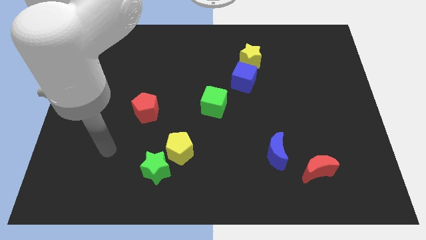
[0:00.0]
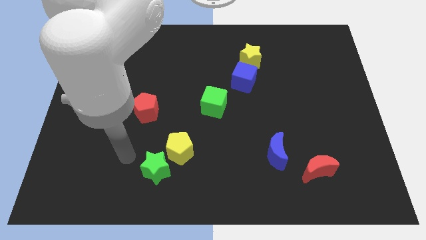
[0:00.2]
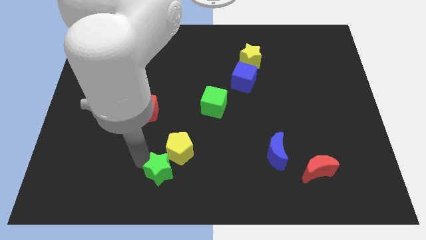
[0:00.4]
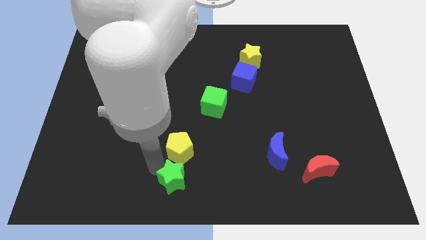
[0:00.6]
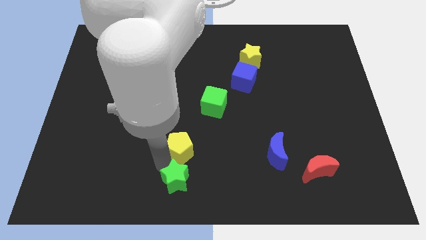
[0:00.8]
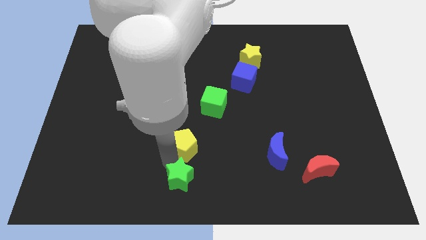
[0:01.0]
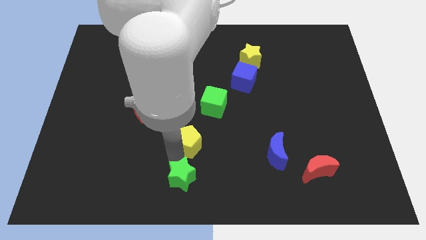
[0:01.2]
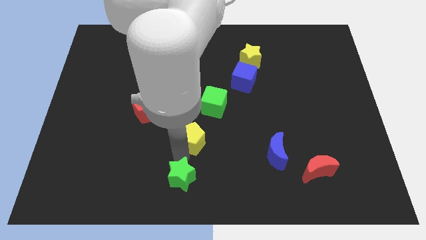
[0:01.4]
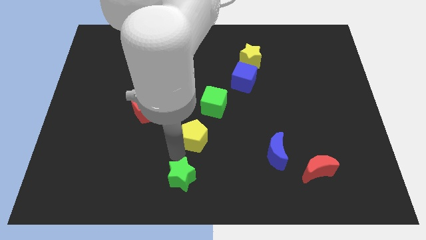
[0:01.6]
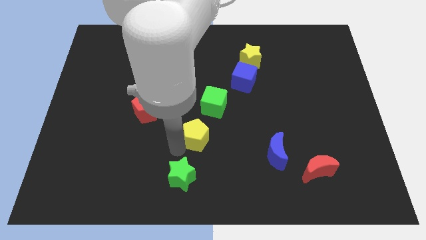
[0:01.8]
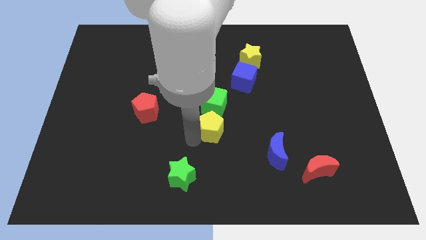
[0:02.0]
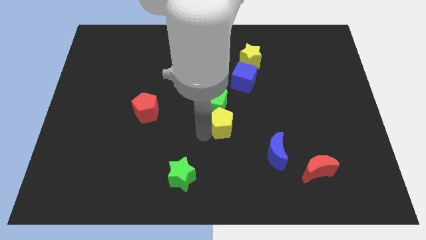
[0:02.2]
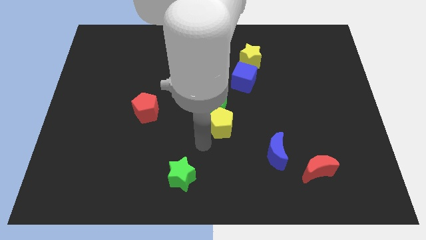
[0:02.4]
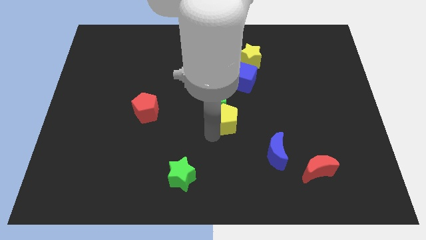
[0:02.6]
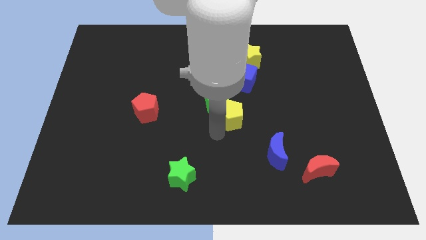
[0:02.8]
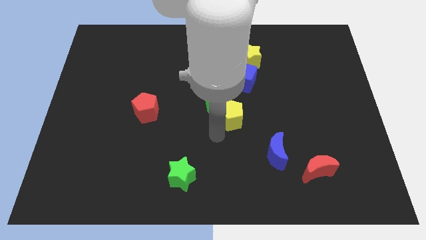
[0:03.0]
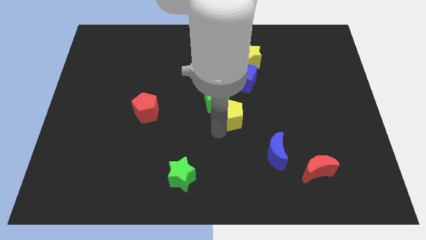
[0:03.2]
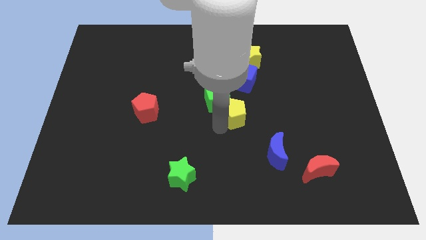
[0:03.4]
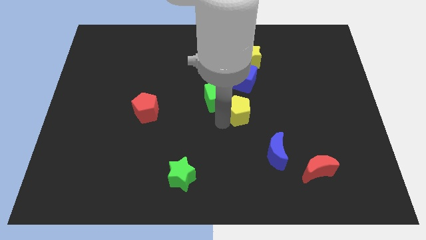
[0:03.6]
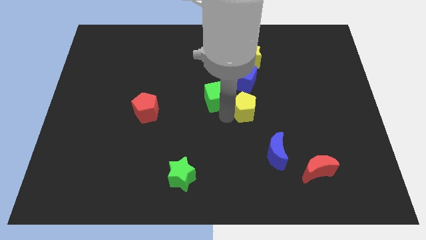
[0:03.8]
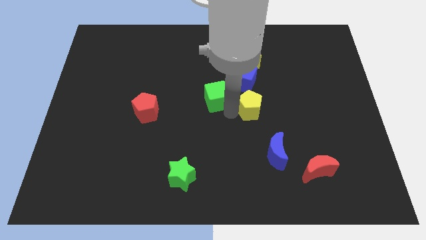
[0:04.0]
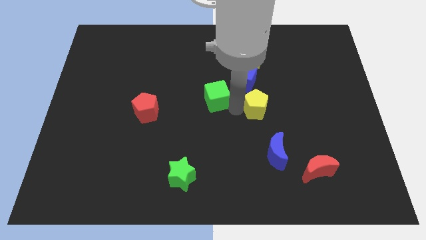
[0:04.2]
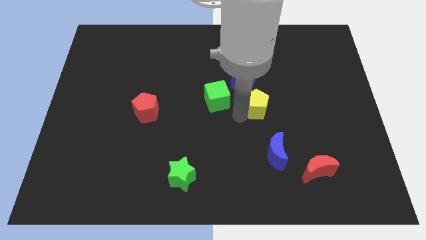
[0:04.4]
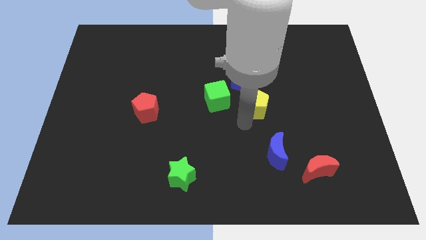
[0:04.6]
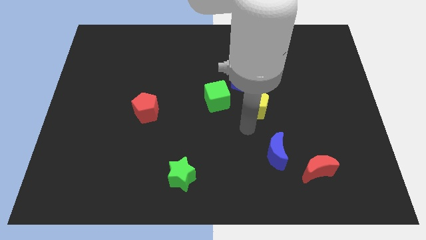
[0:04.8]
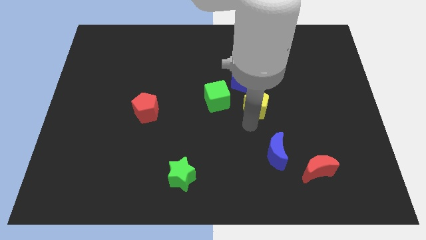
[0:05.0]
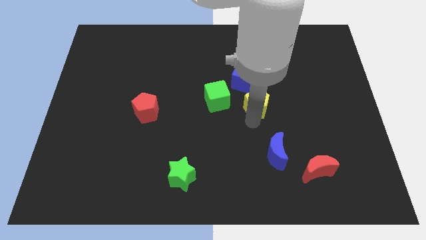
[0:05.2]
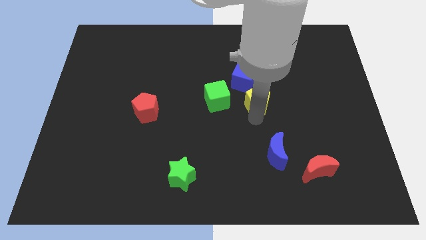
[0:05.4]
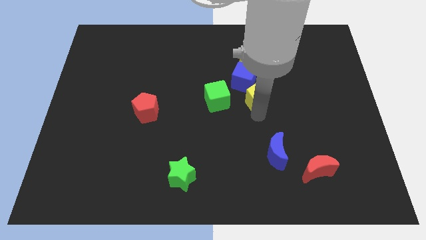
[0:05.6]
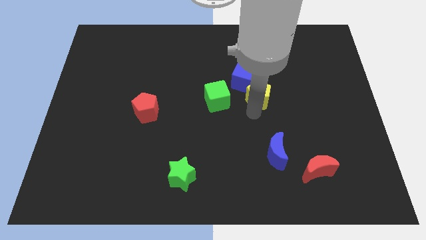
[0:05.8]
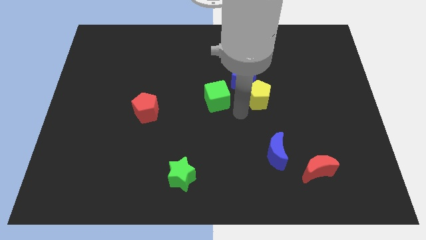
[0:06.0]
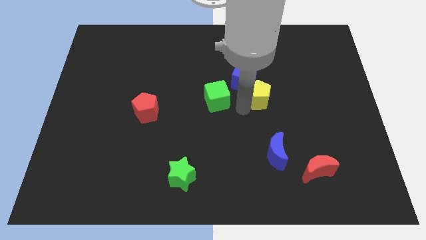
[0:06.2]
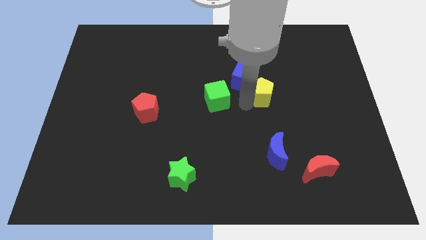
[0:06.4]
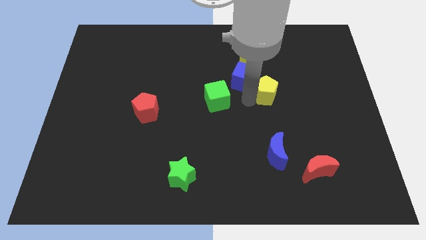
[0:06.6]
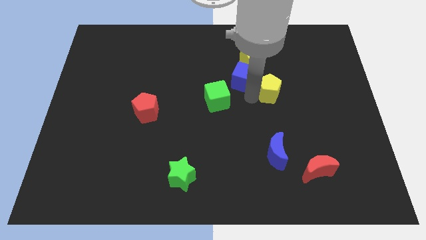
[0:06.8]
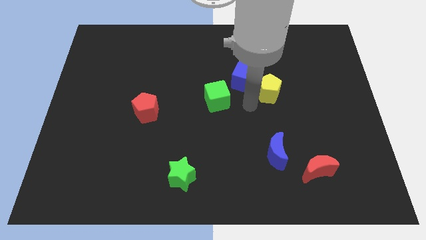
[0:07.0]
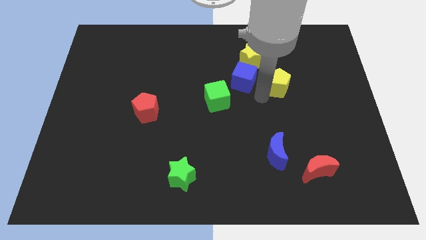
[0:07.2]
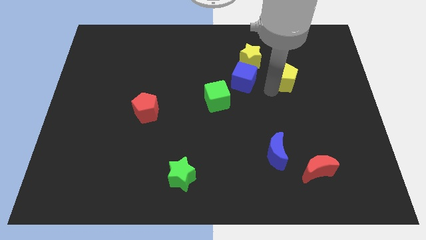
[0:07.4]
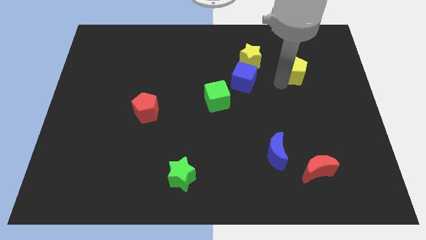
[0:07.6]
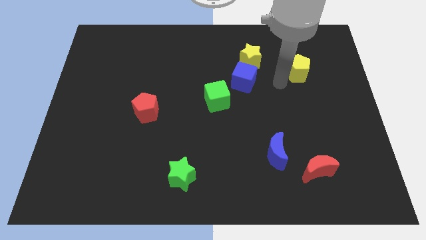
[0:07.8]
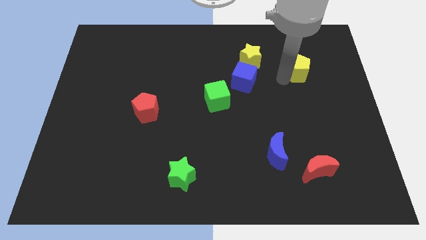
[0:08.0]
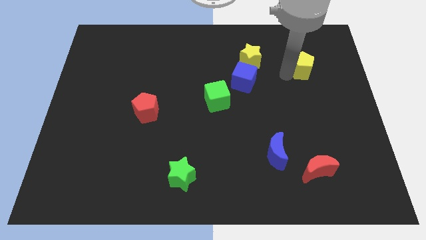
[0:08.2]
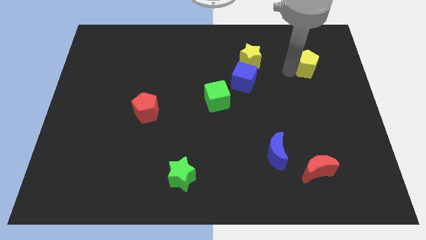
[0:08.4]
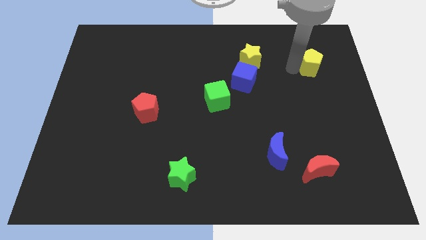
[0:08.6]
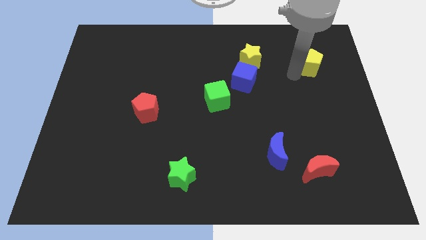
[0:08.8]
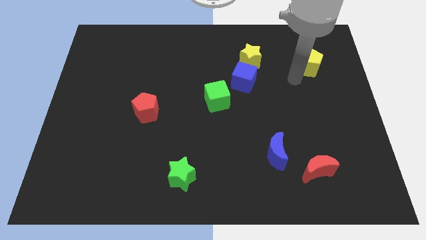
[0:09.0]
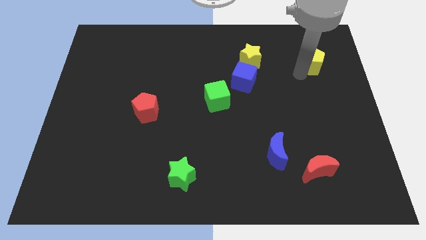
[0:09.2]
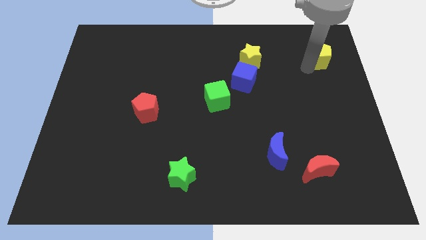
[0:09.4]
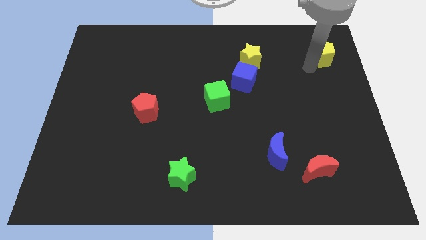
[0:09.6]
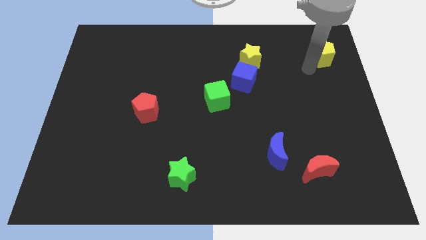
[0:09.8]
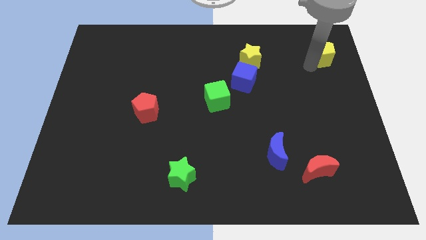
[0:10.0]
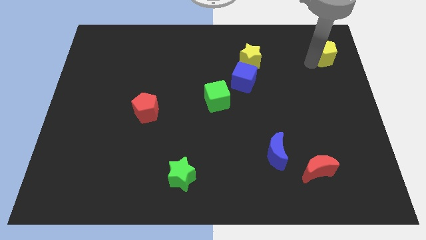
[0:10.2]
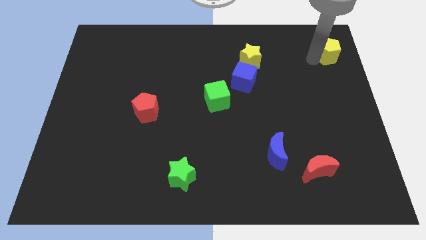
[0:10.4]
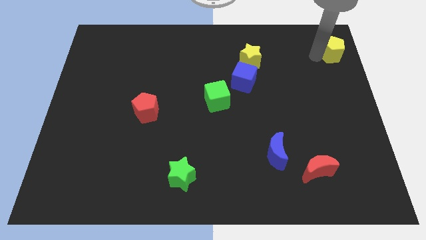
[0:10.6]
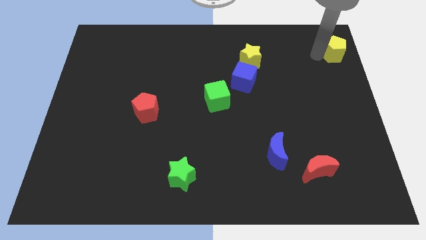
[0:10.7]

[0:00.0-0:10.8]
push the yellow pentagon to the top right
